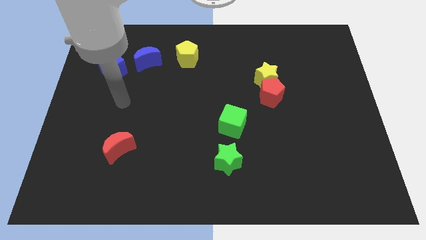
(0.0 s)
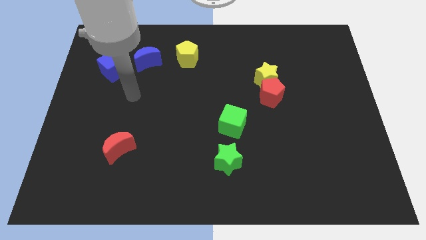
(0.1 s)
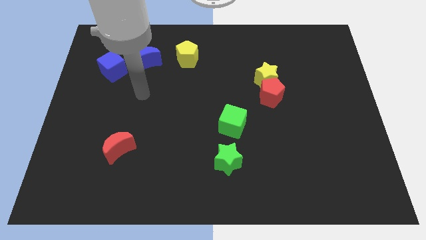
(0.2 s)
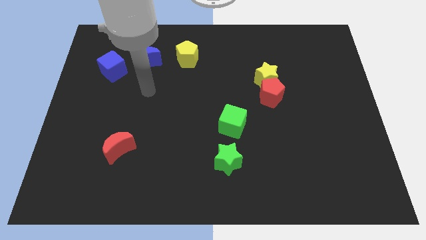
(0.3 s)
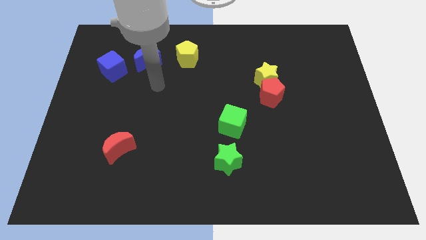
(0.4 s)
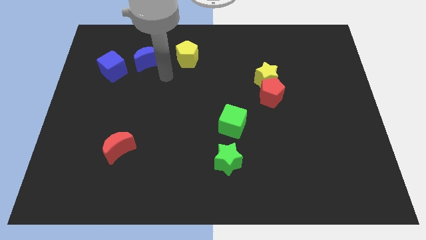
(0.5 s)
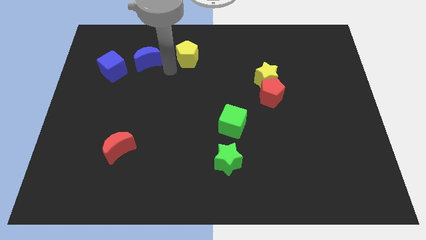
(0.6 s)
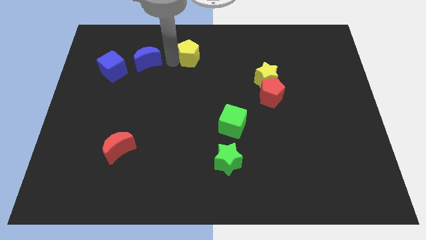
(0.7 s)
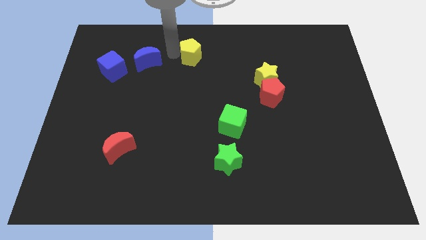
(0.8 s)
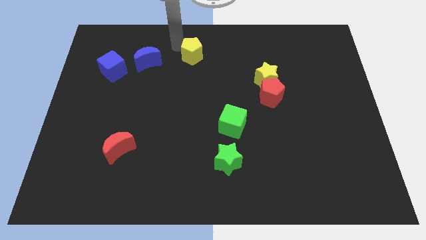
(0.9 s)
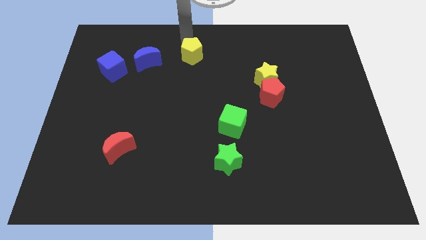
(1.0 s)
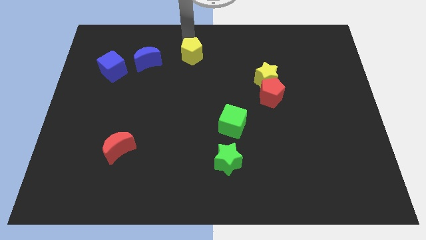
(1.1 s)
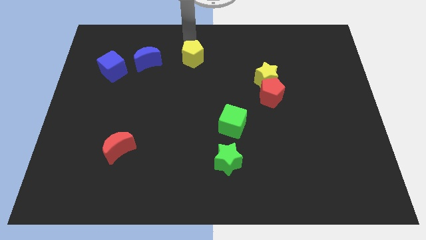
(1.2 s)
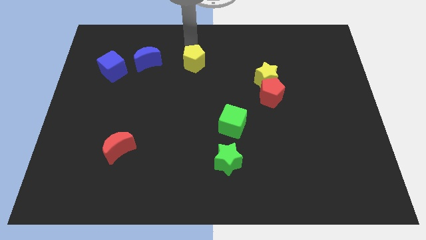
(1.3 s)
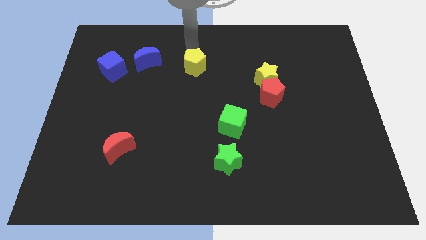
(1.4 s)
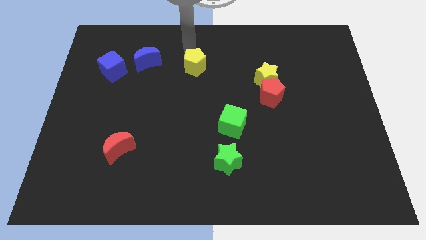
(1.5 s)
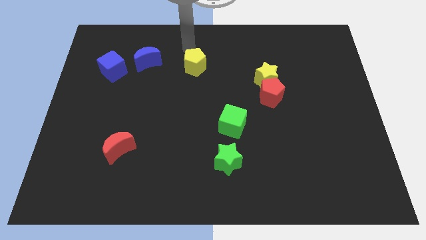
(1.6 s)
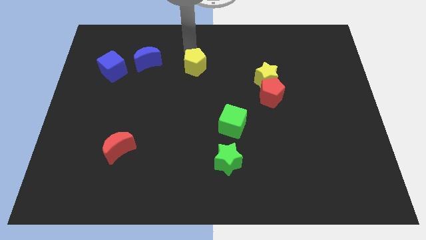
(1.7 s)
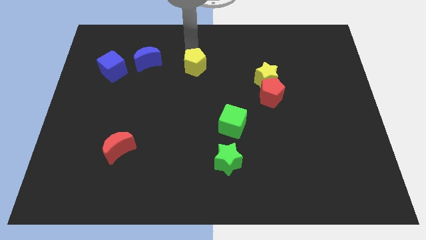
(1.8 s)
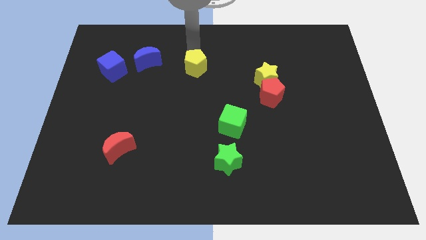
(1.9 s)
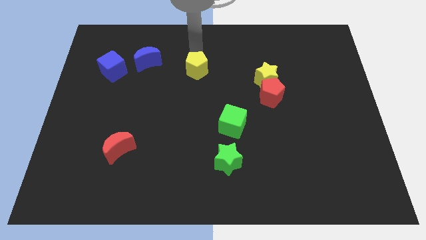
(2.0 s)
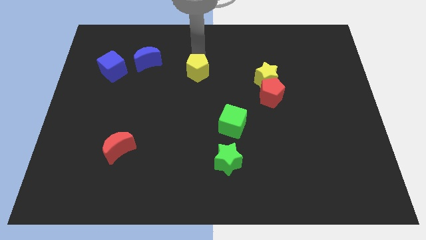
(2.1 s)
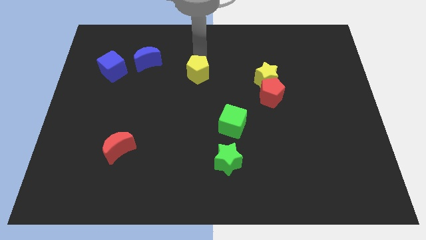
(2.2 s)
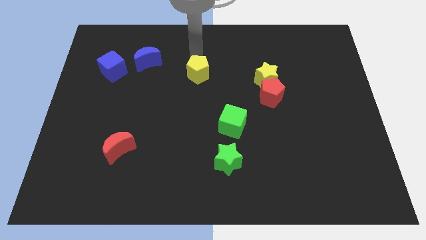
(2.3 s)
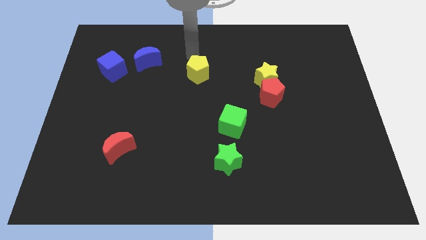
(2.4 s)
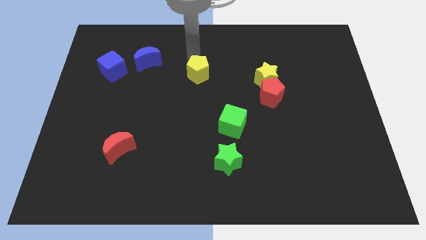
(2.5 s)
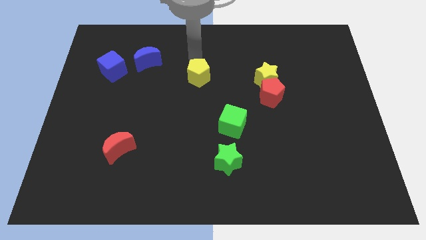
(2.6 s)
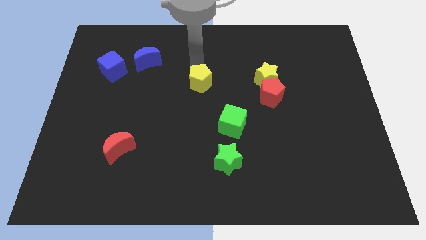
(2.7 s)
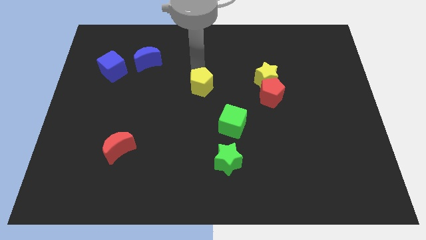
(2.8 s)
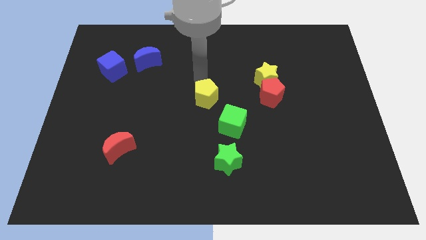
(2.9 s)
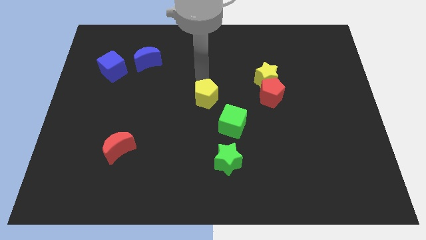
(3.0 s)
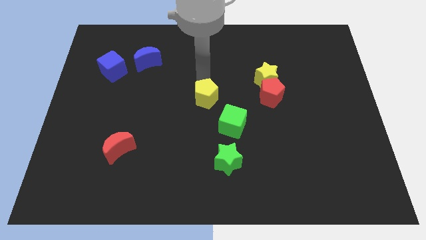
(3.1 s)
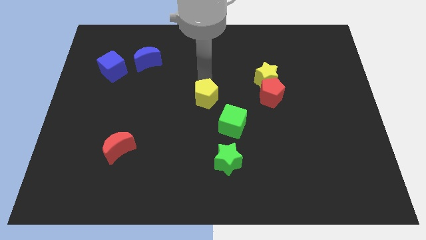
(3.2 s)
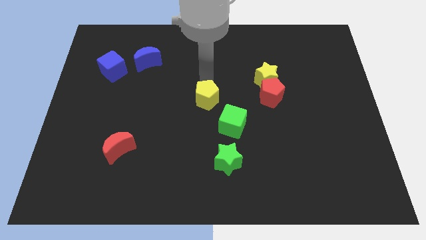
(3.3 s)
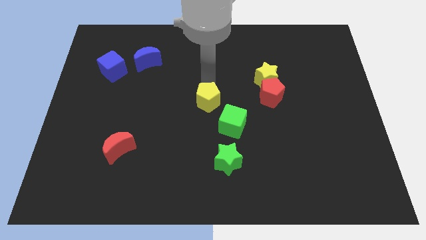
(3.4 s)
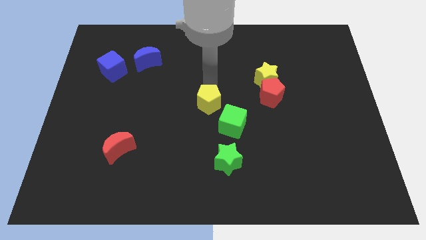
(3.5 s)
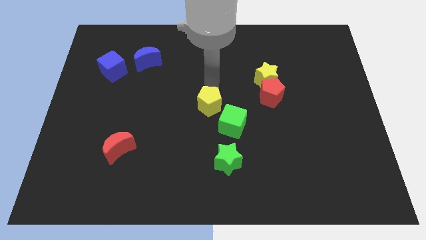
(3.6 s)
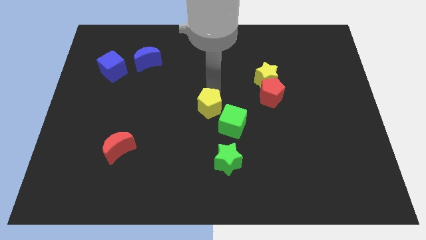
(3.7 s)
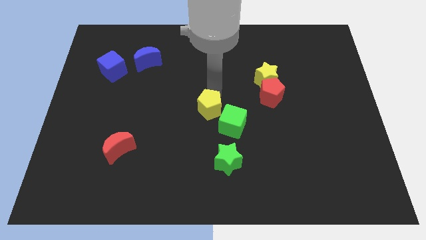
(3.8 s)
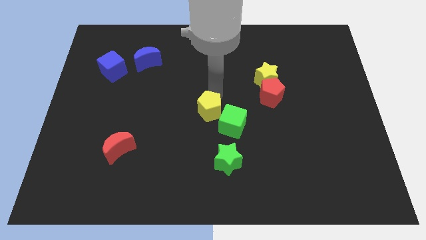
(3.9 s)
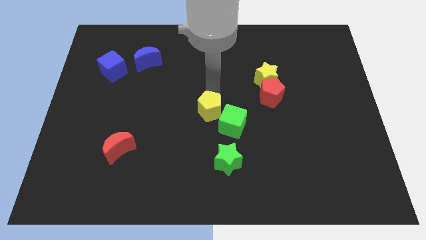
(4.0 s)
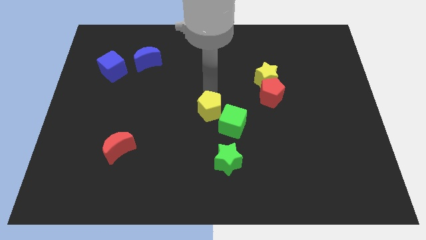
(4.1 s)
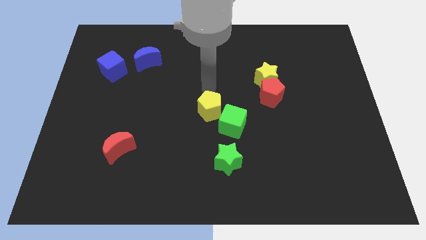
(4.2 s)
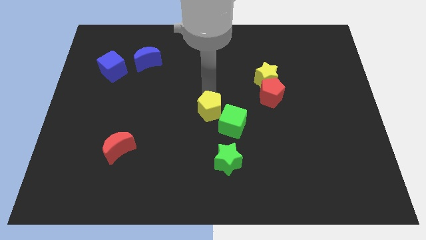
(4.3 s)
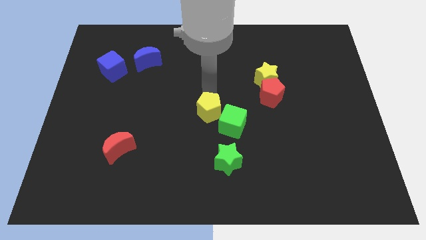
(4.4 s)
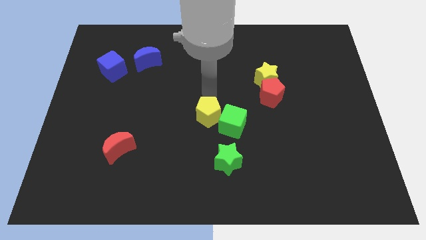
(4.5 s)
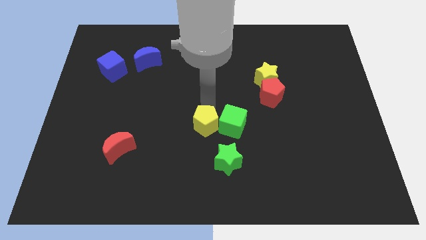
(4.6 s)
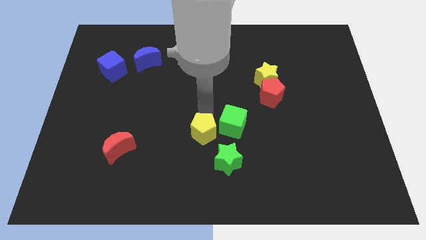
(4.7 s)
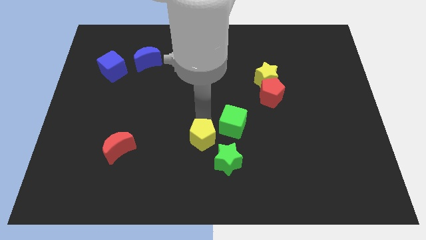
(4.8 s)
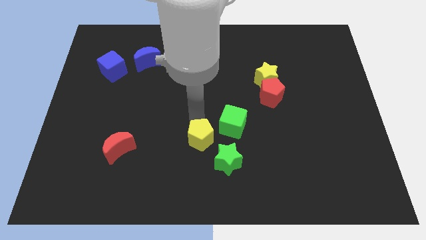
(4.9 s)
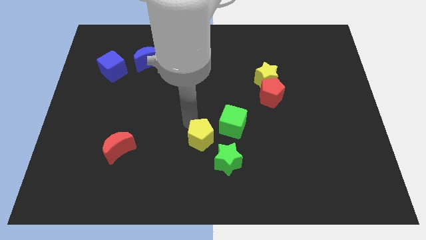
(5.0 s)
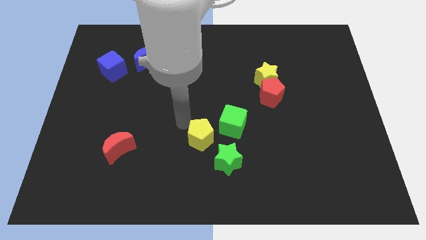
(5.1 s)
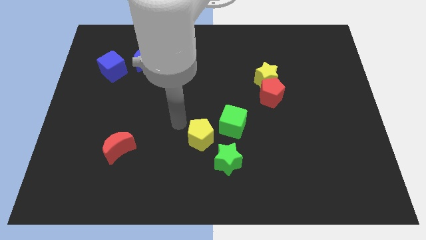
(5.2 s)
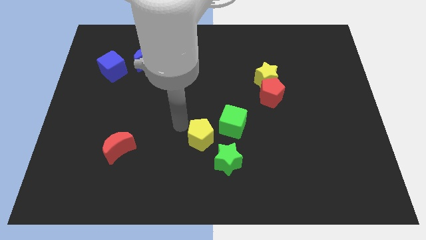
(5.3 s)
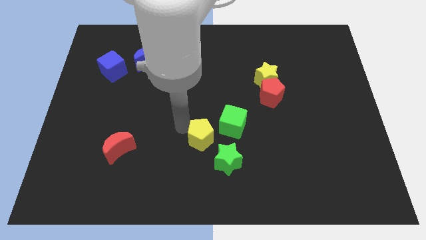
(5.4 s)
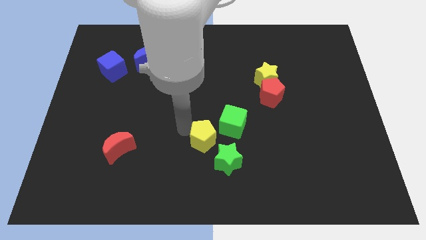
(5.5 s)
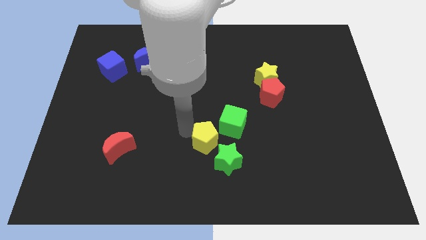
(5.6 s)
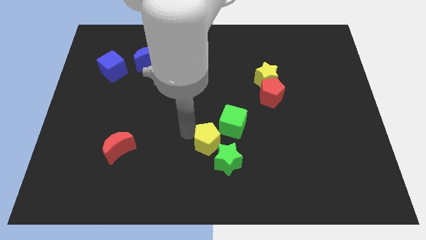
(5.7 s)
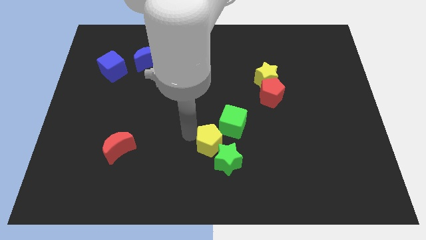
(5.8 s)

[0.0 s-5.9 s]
put the yellow pentagon next to the green star

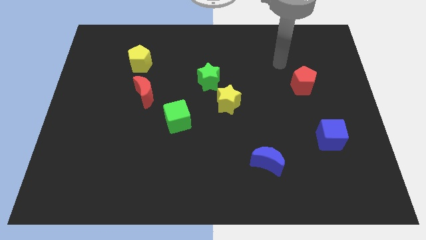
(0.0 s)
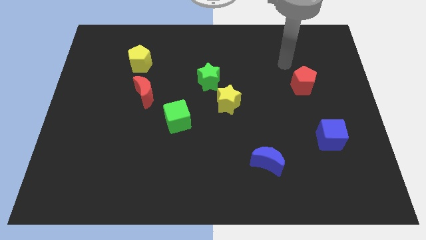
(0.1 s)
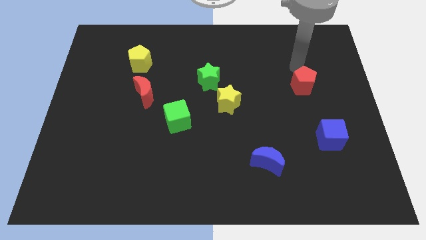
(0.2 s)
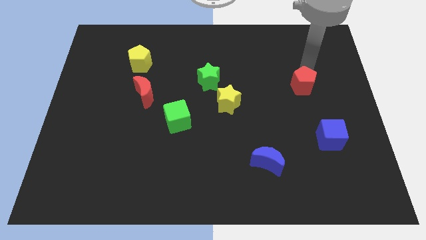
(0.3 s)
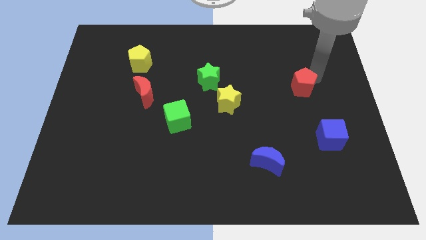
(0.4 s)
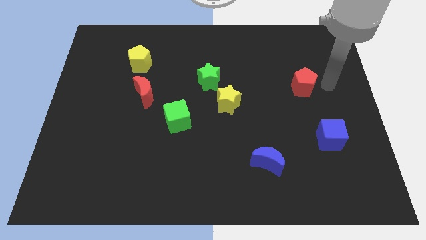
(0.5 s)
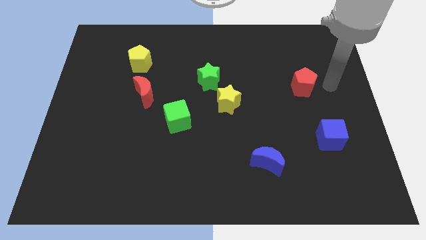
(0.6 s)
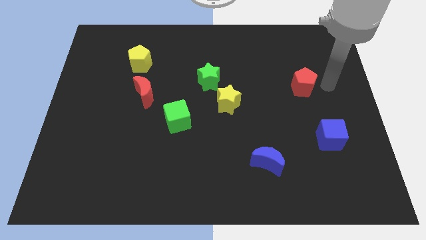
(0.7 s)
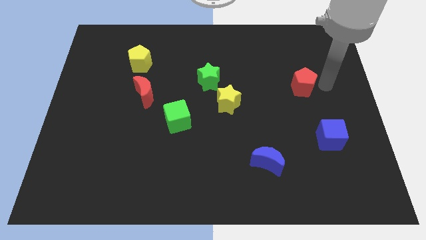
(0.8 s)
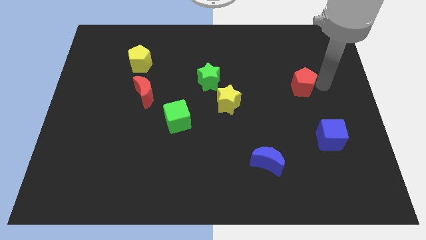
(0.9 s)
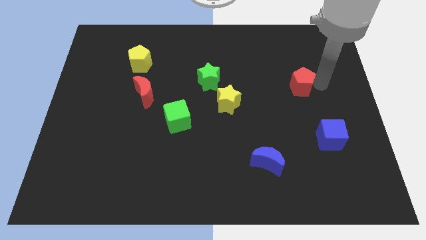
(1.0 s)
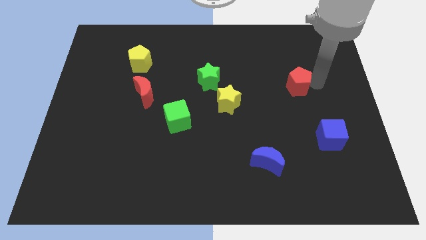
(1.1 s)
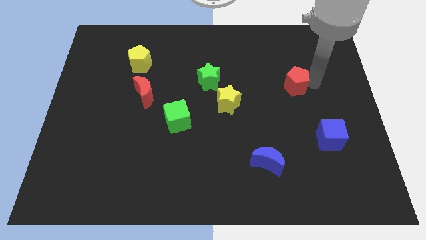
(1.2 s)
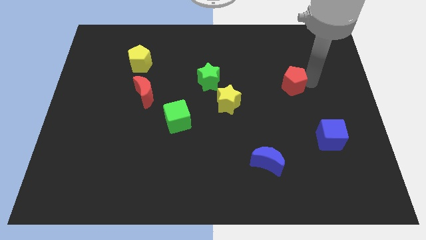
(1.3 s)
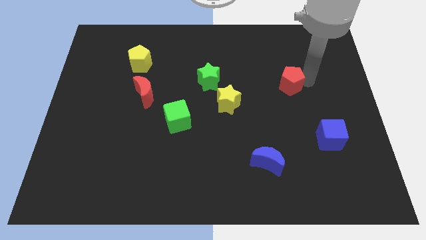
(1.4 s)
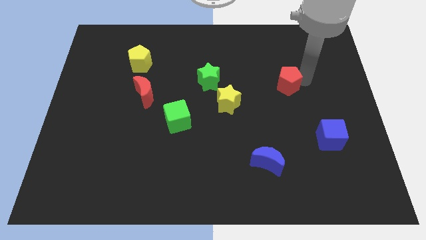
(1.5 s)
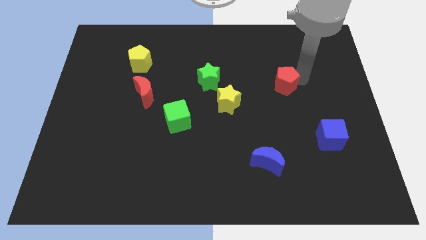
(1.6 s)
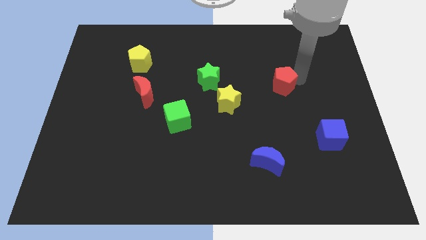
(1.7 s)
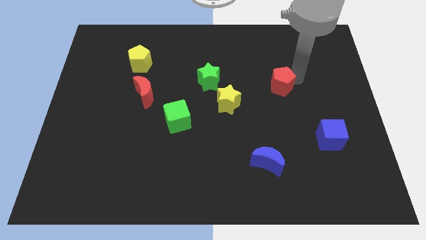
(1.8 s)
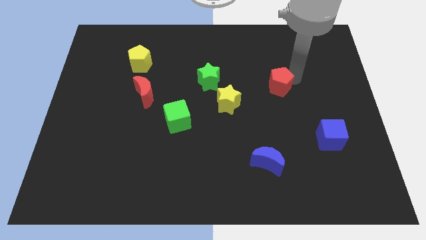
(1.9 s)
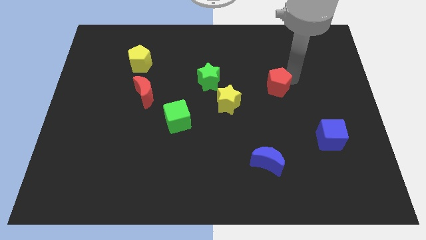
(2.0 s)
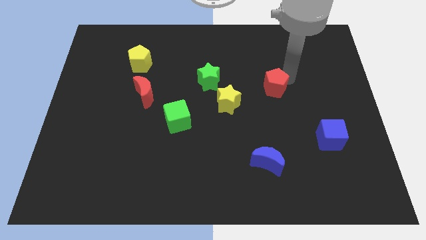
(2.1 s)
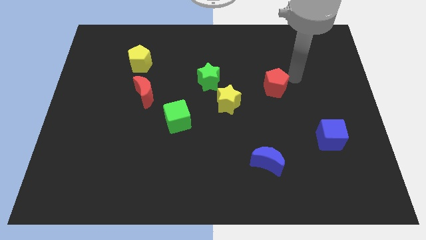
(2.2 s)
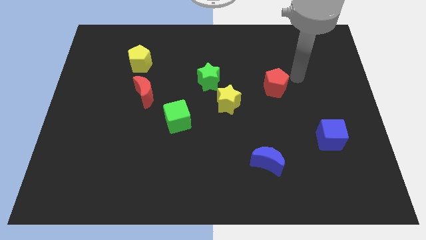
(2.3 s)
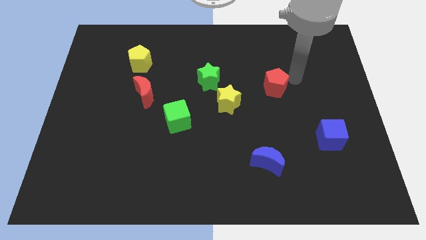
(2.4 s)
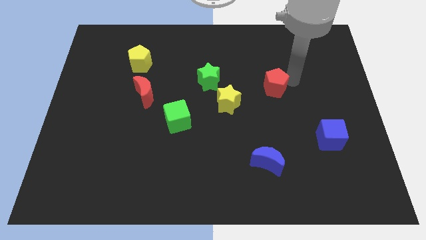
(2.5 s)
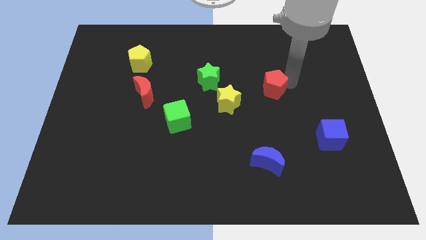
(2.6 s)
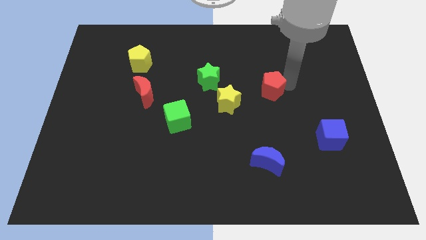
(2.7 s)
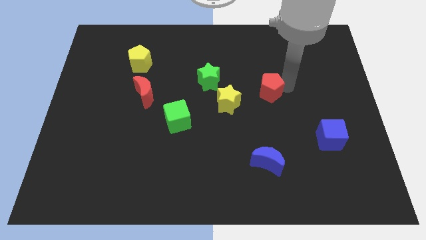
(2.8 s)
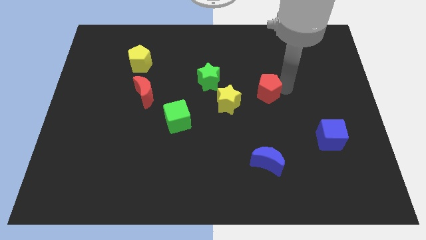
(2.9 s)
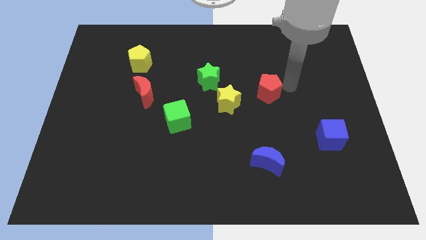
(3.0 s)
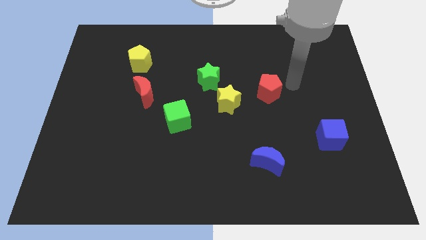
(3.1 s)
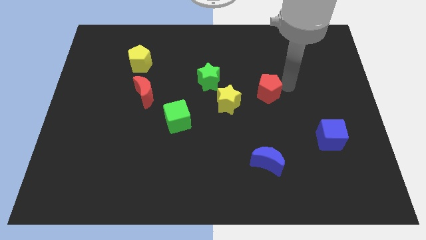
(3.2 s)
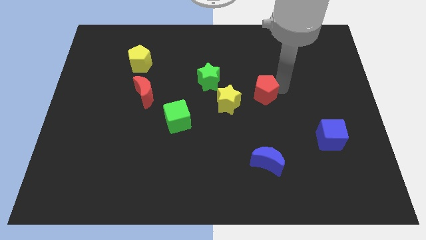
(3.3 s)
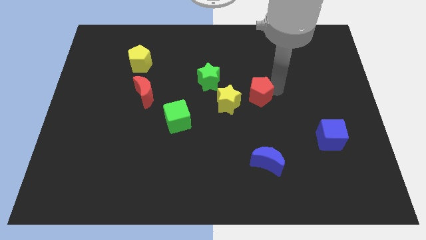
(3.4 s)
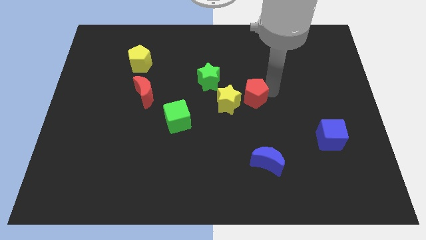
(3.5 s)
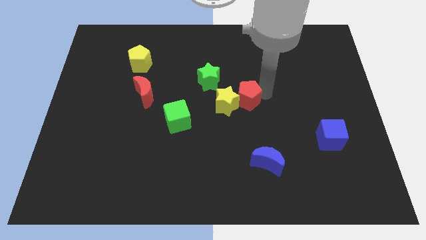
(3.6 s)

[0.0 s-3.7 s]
slide the red pentagon next to the yellow star
